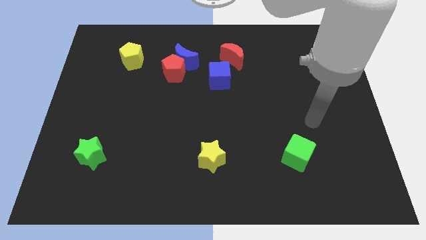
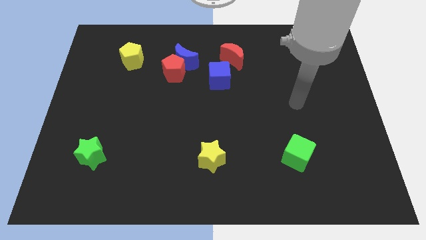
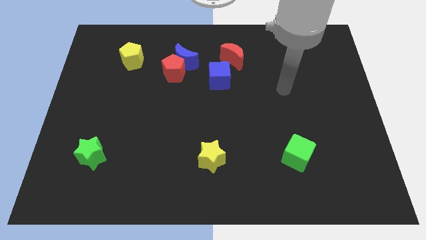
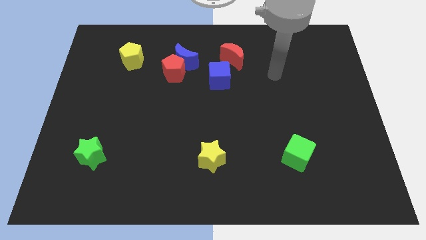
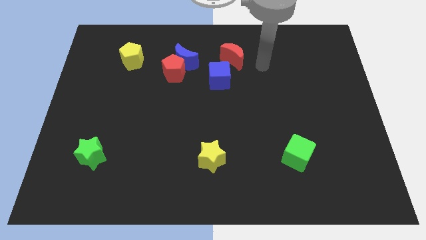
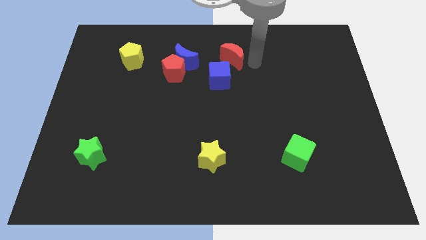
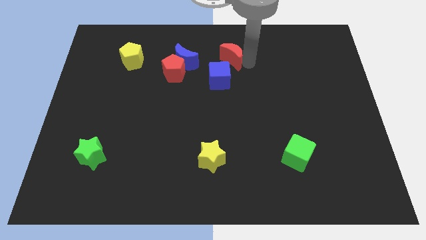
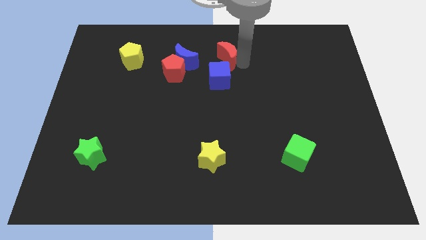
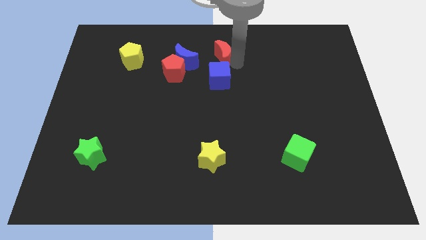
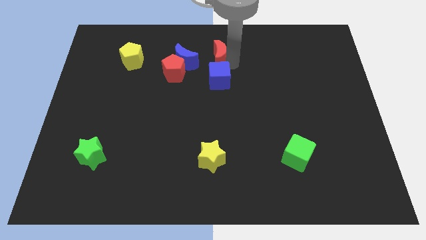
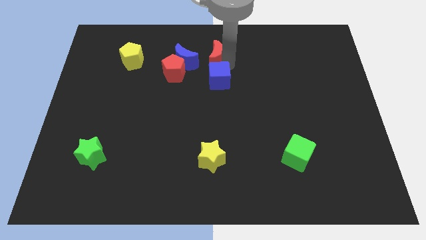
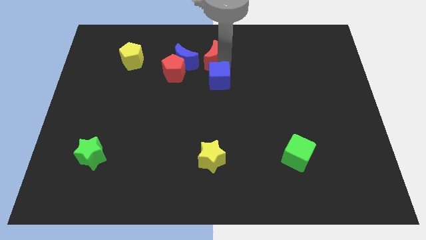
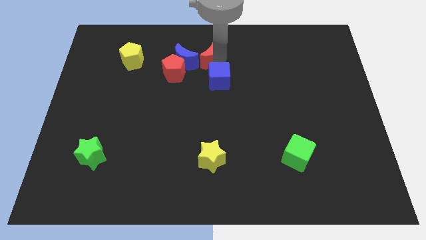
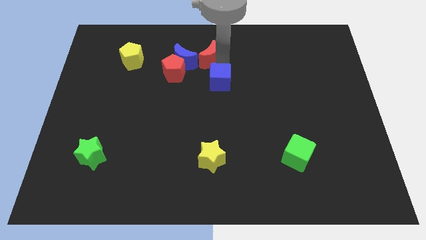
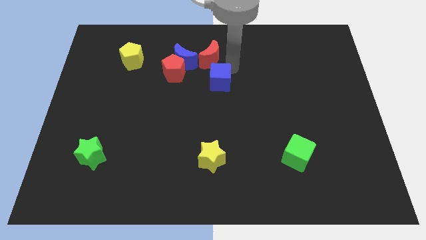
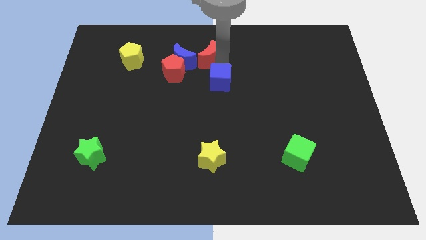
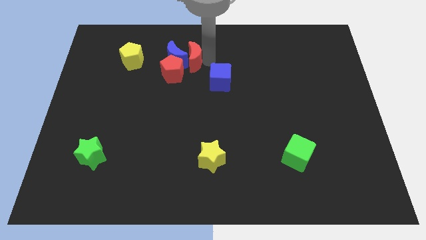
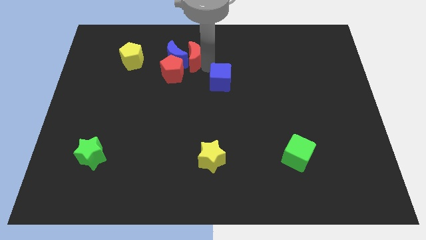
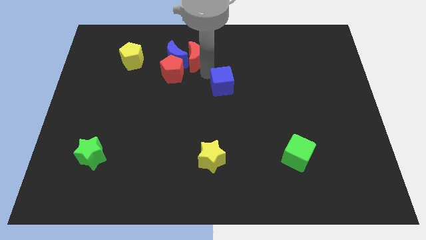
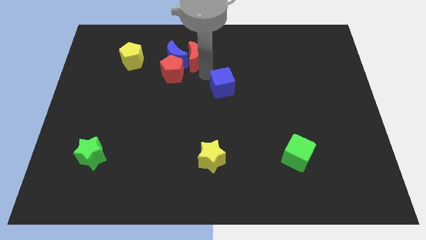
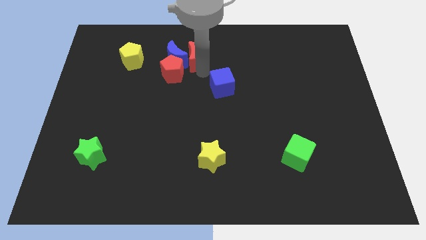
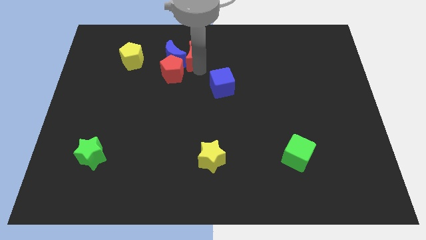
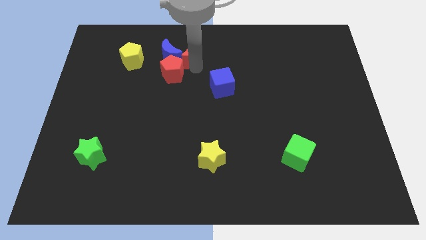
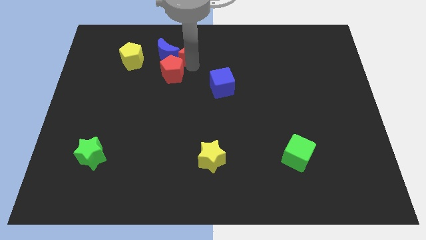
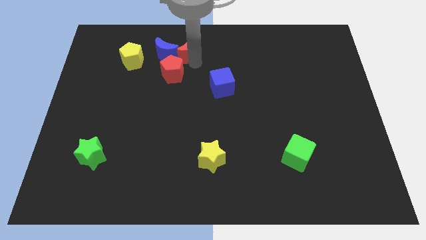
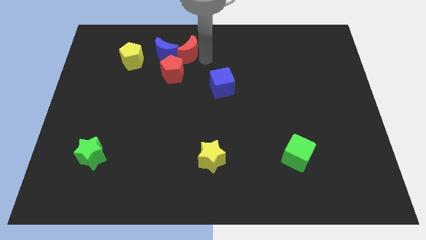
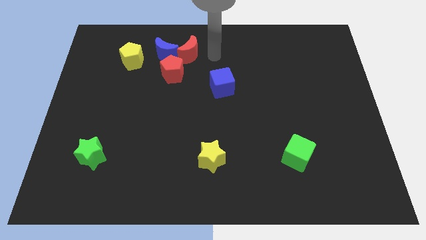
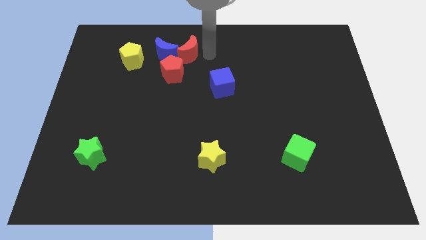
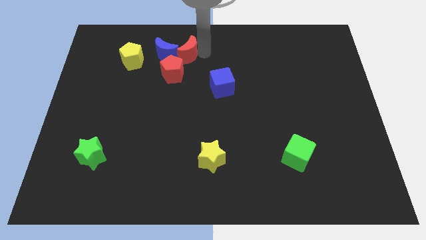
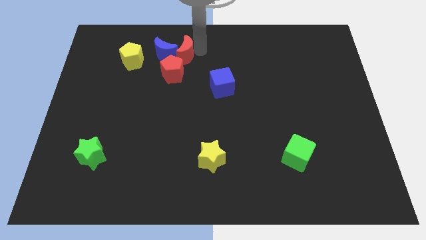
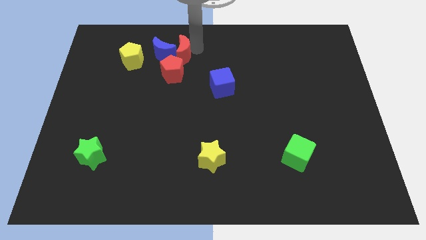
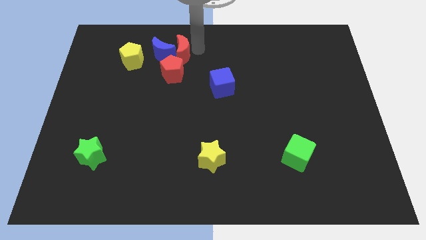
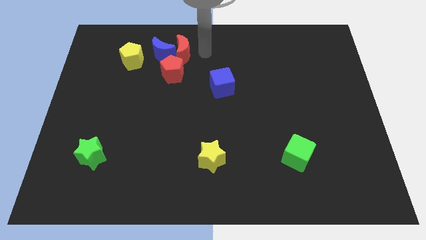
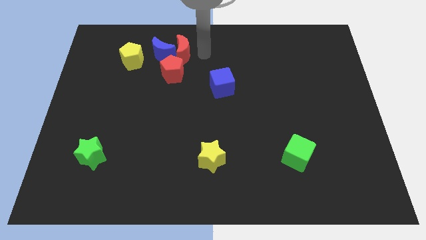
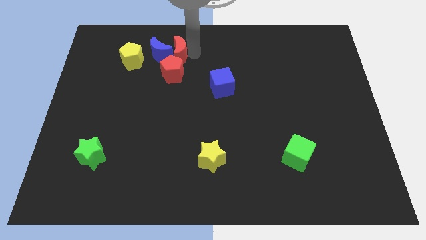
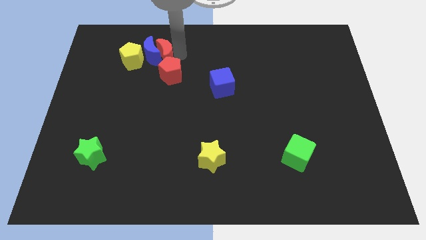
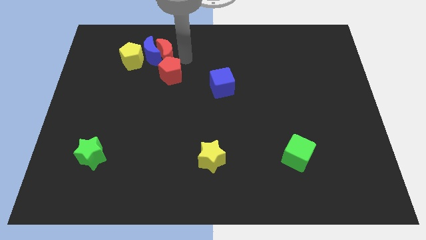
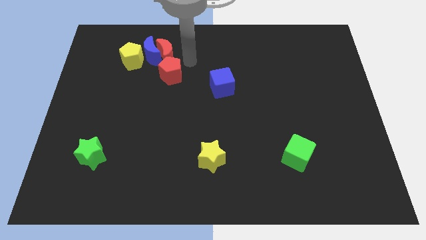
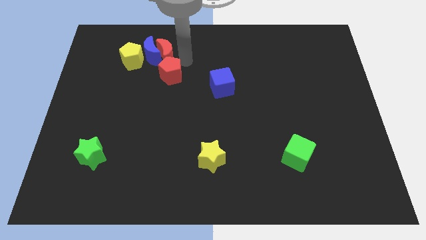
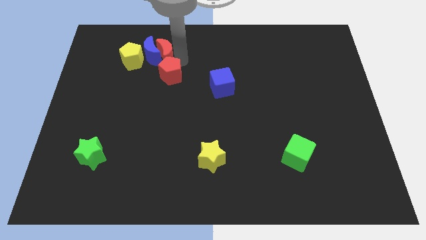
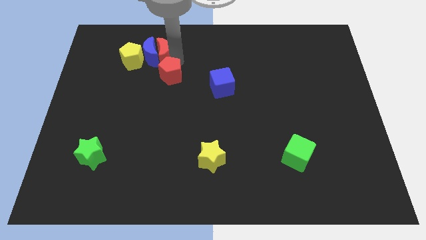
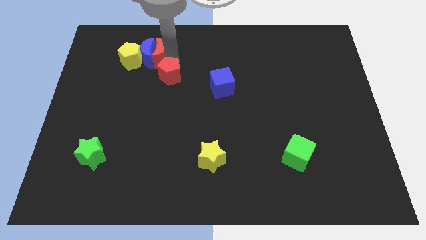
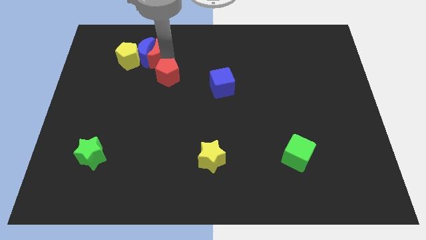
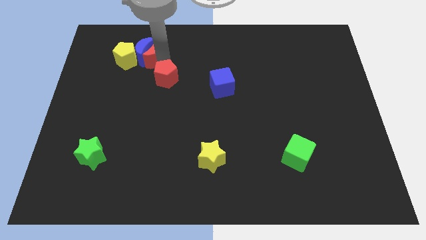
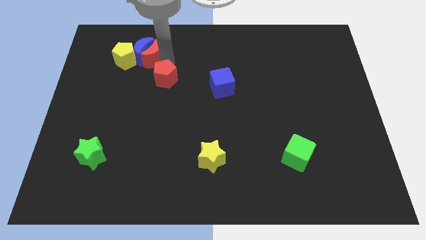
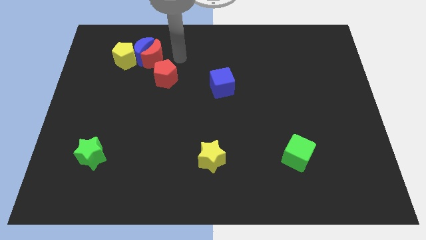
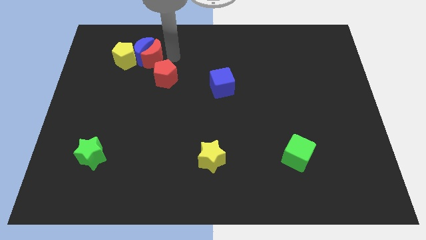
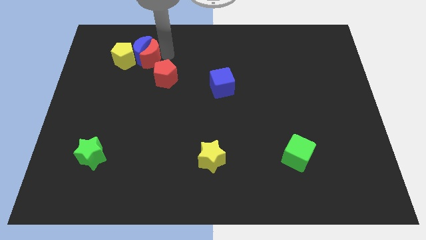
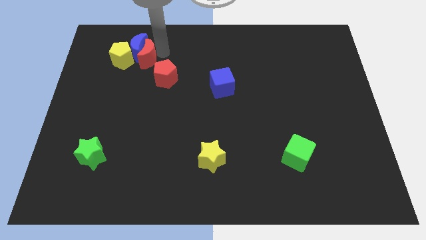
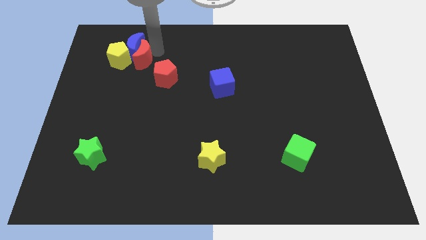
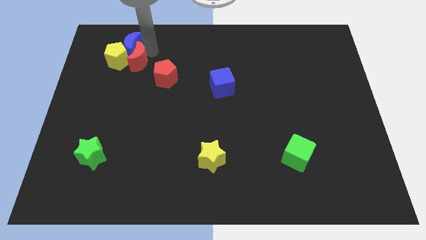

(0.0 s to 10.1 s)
push the red moon next to the yellow pentagon

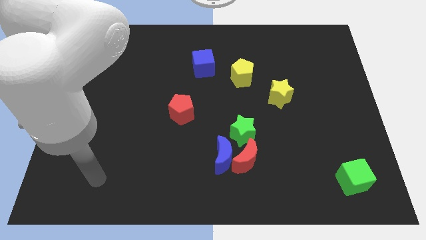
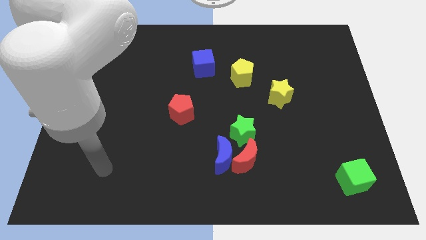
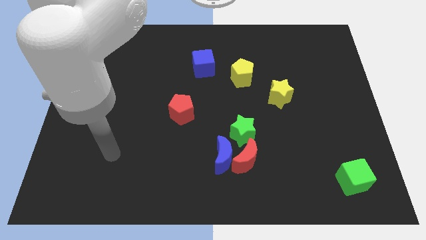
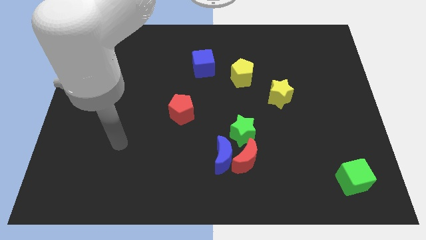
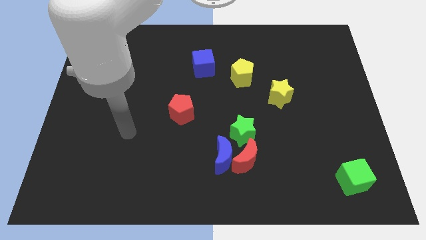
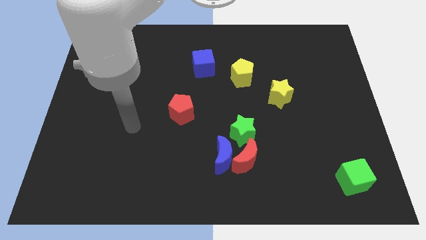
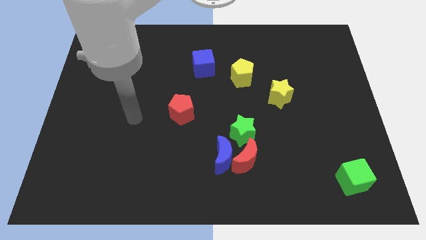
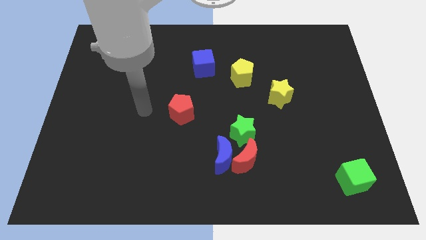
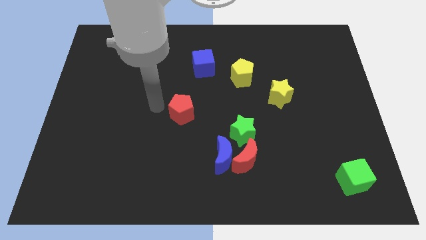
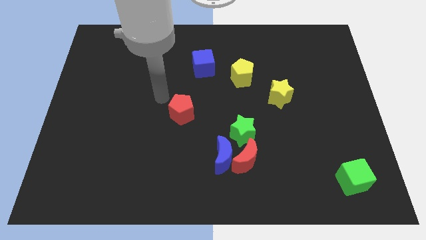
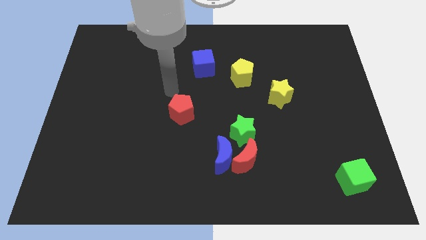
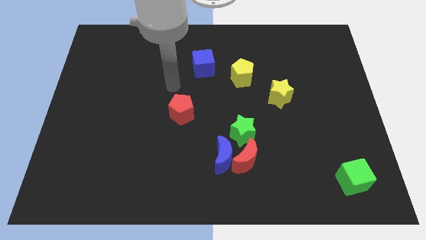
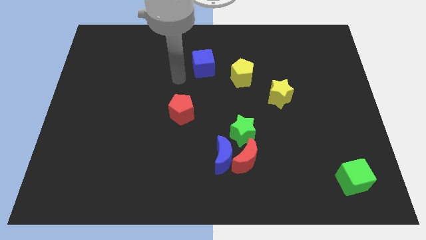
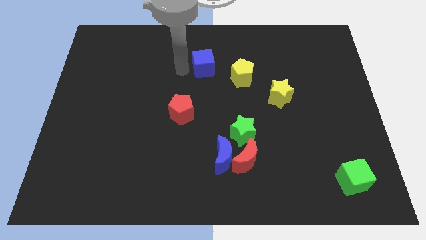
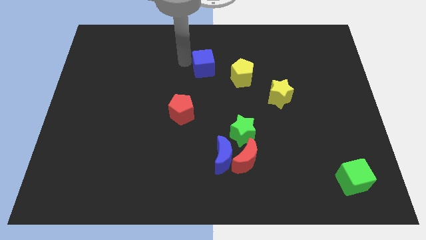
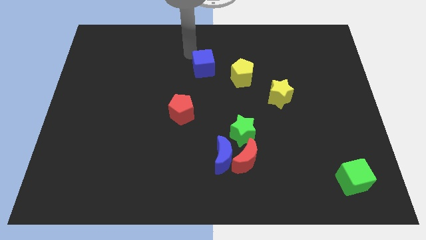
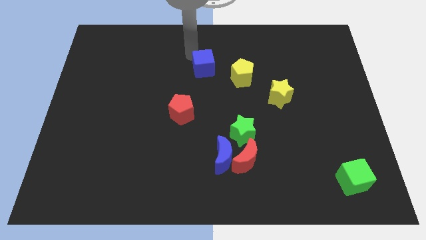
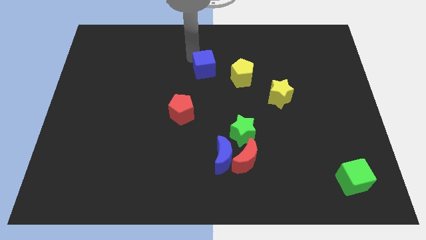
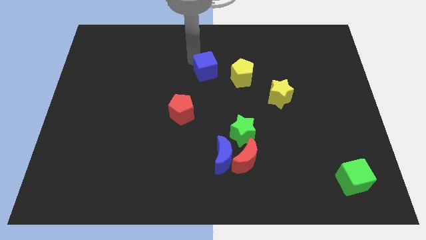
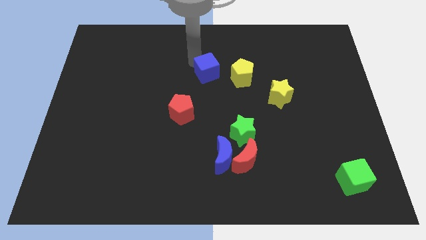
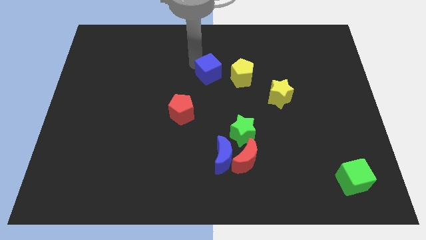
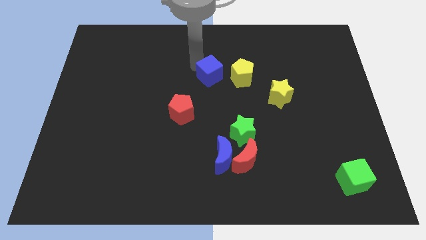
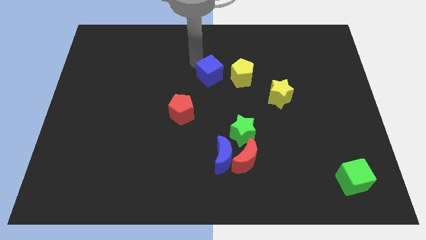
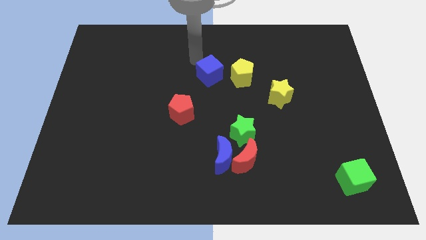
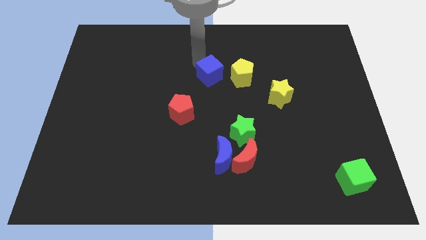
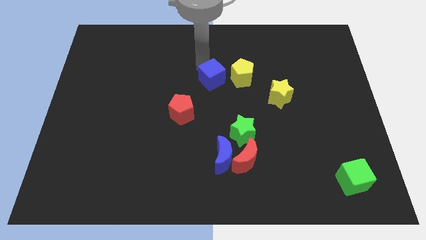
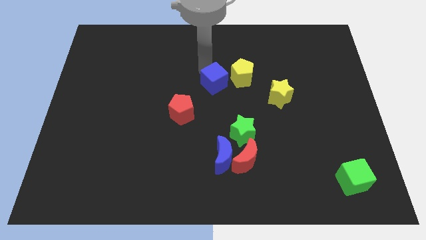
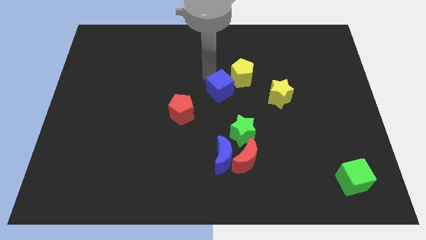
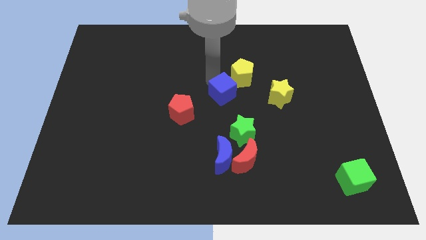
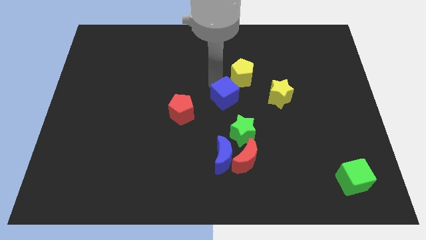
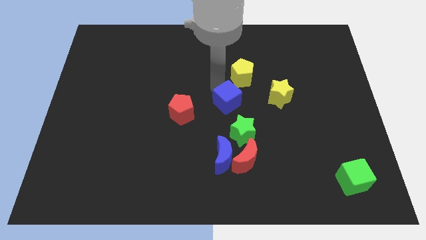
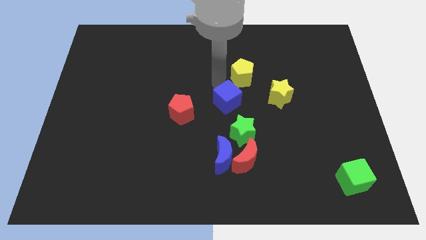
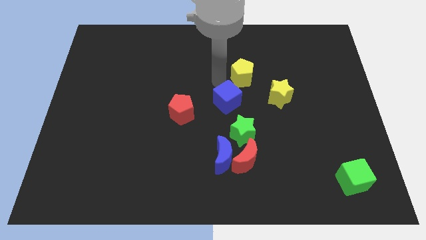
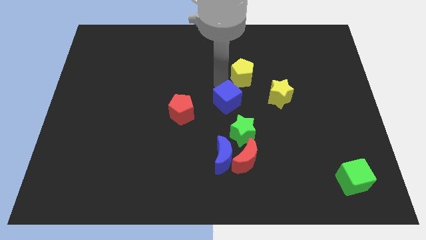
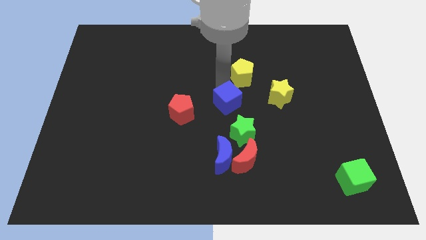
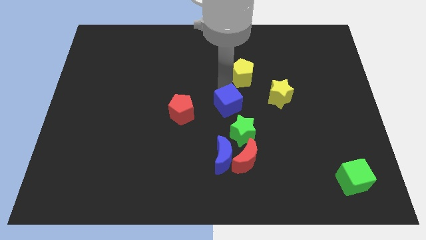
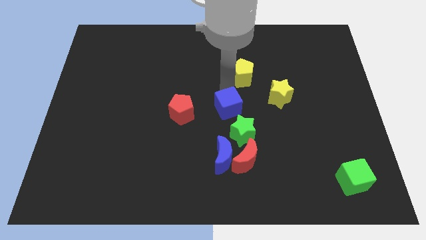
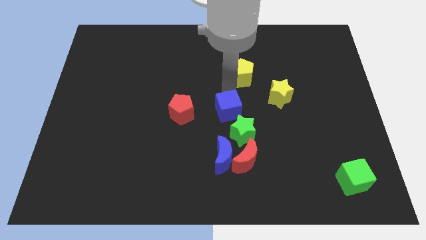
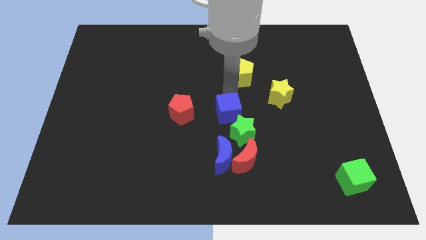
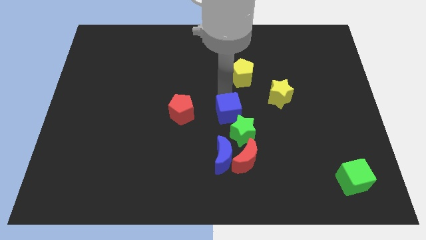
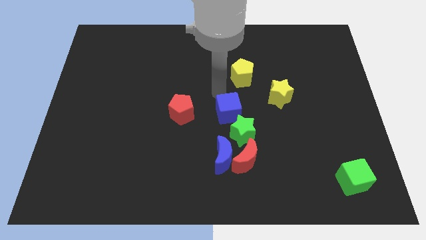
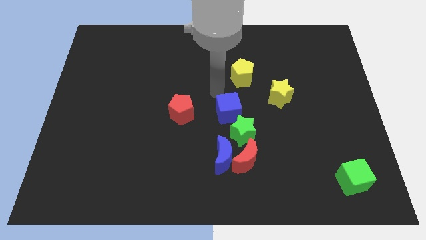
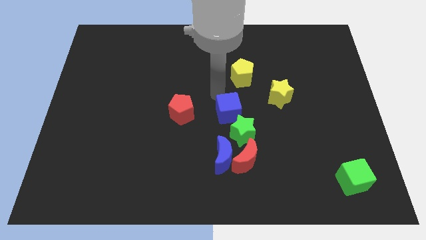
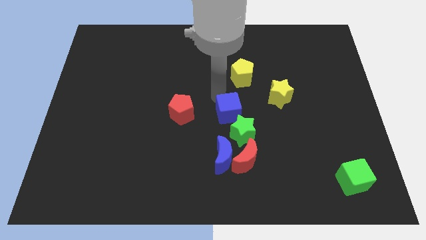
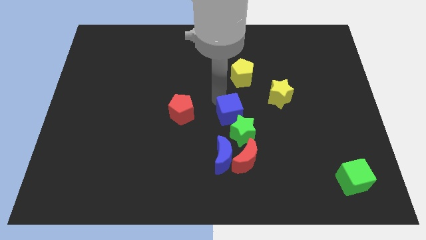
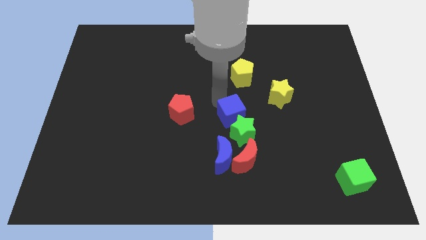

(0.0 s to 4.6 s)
push the blue cube close to the green star
